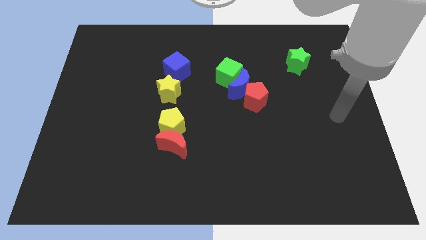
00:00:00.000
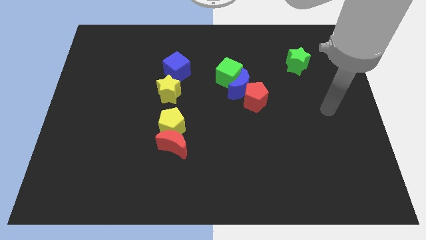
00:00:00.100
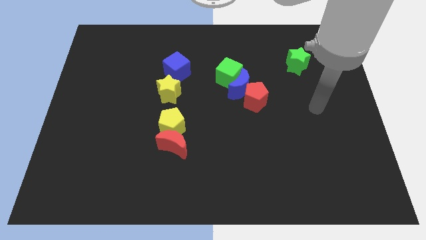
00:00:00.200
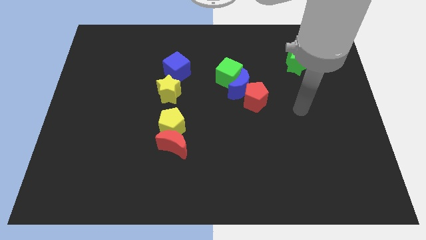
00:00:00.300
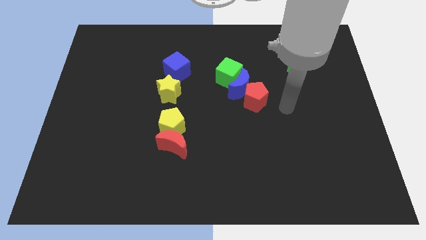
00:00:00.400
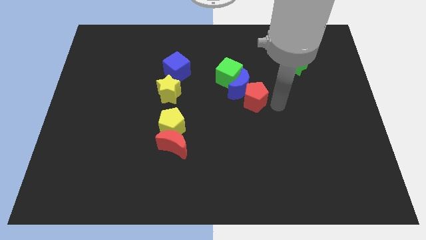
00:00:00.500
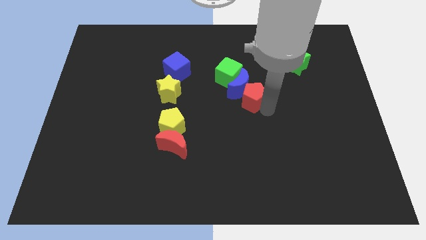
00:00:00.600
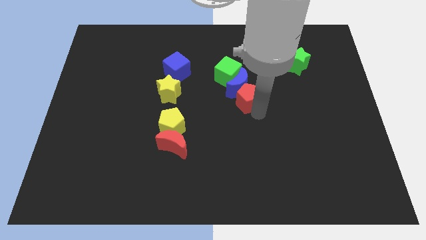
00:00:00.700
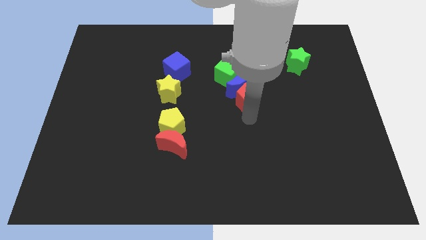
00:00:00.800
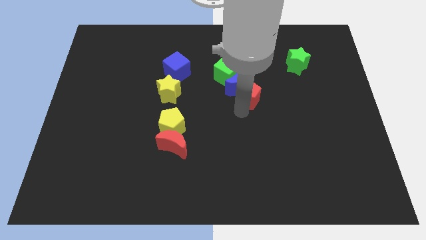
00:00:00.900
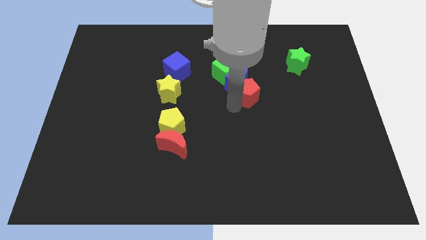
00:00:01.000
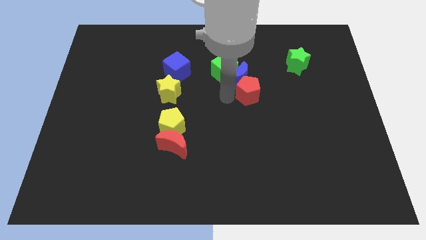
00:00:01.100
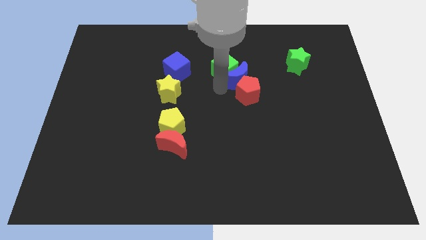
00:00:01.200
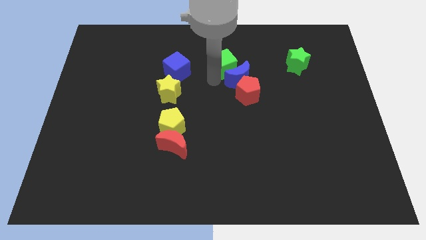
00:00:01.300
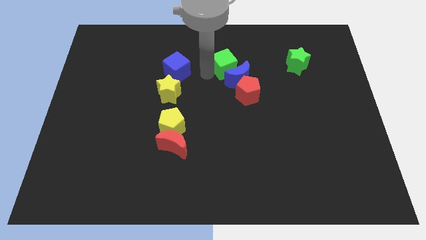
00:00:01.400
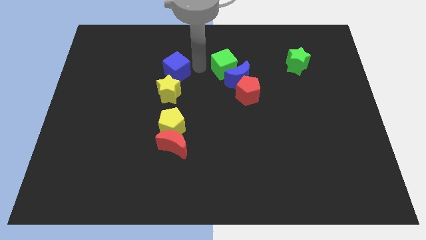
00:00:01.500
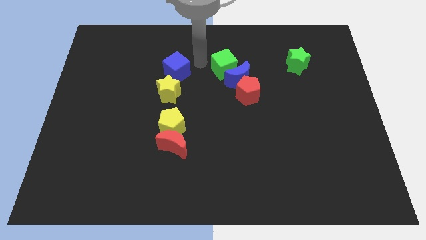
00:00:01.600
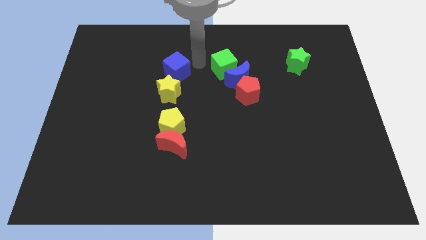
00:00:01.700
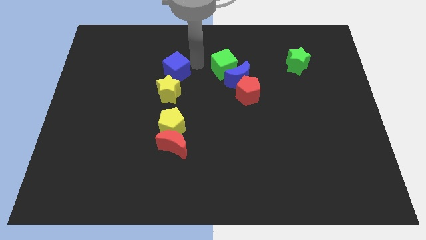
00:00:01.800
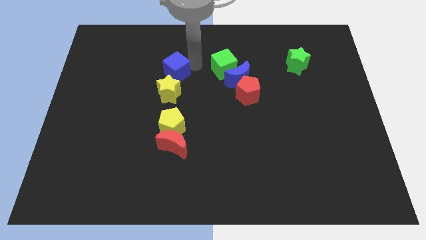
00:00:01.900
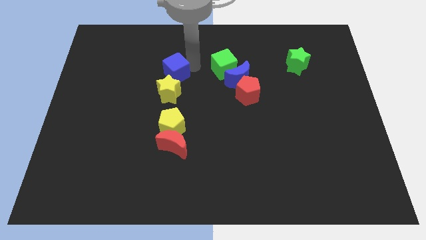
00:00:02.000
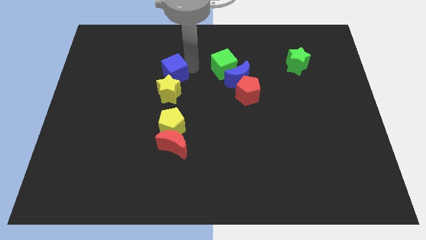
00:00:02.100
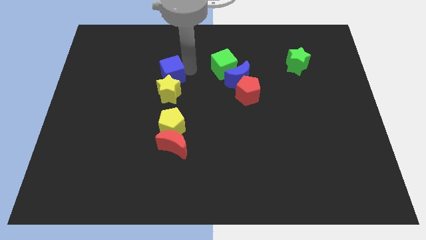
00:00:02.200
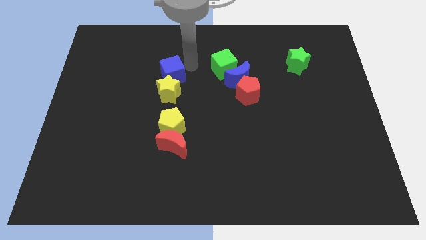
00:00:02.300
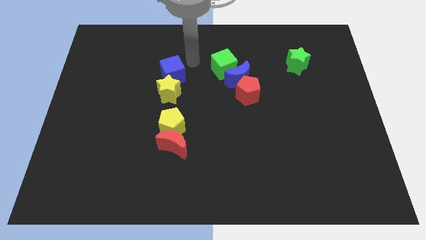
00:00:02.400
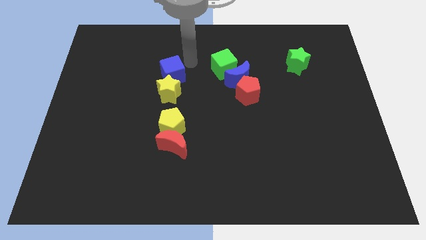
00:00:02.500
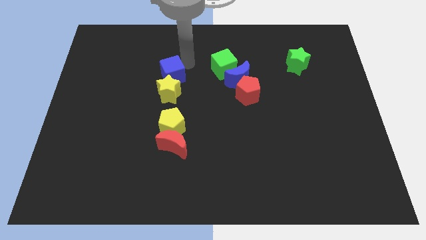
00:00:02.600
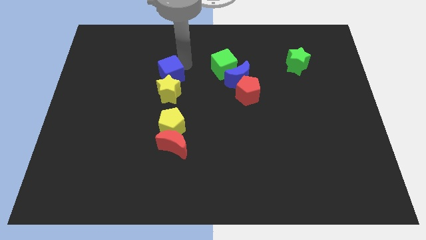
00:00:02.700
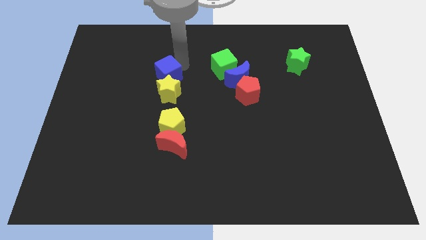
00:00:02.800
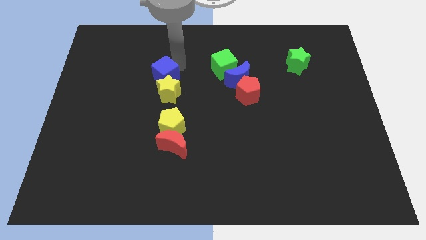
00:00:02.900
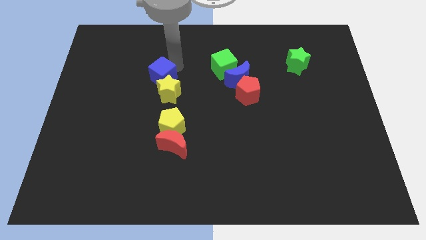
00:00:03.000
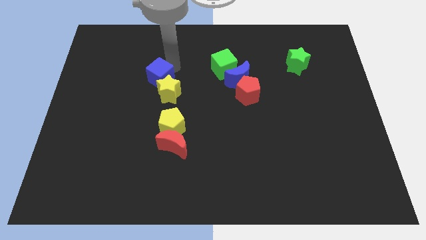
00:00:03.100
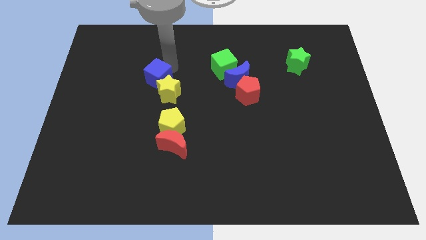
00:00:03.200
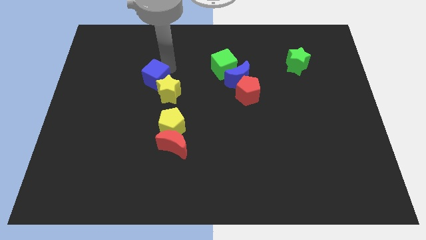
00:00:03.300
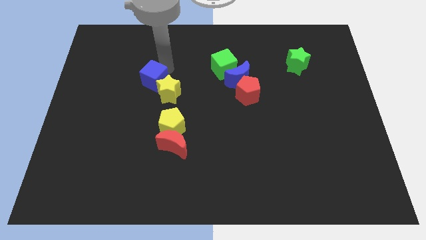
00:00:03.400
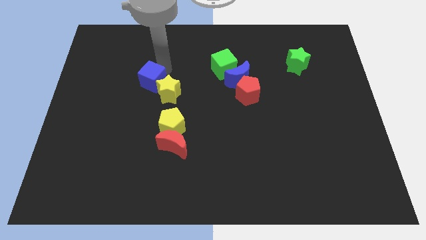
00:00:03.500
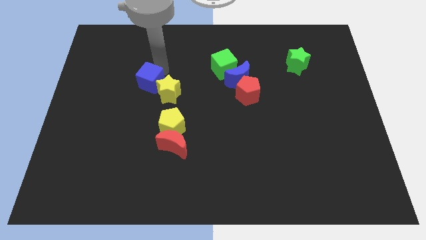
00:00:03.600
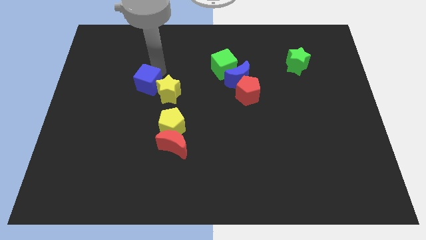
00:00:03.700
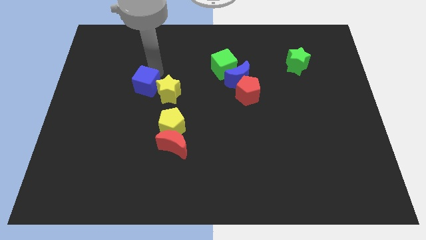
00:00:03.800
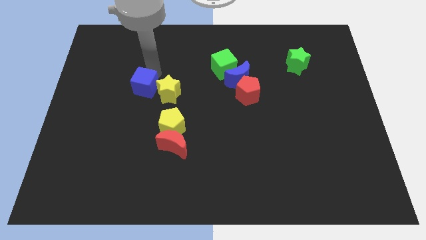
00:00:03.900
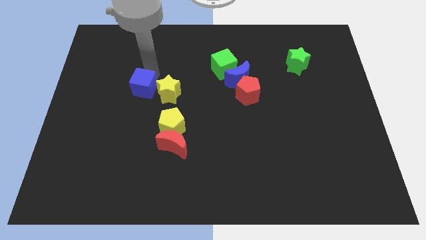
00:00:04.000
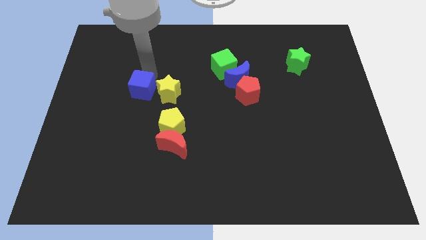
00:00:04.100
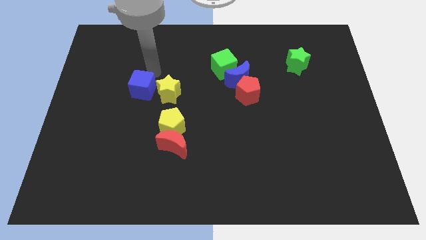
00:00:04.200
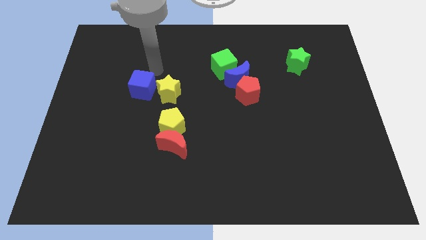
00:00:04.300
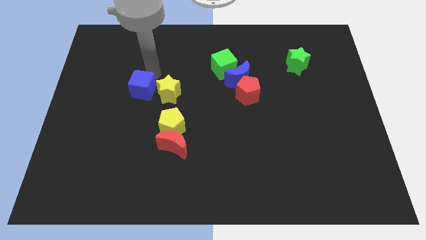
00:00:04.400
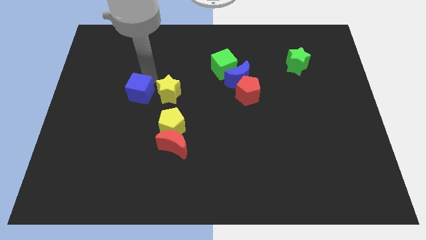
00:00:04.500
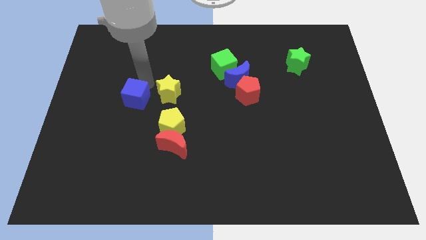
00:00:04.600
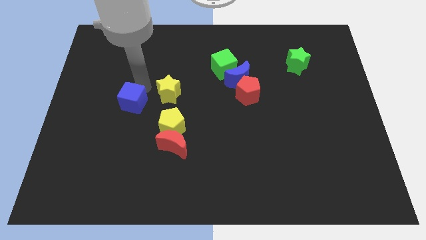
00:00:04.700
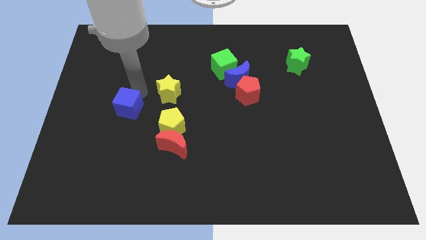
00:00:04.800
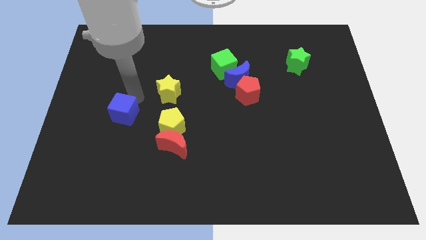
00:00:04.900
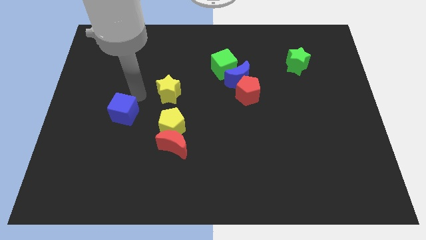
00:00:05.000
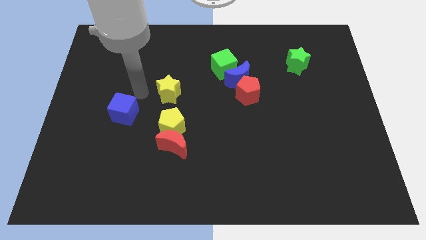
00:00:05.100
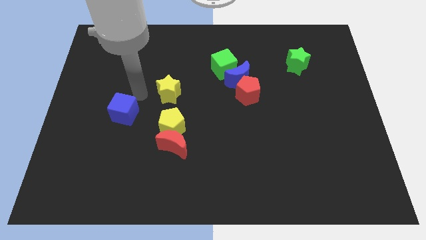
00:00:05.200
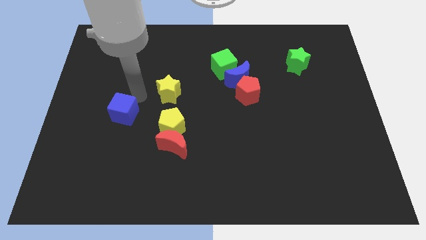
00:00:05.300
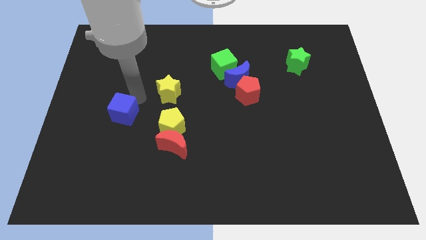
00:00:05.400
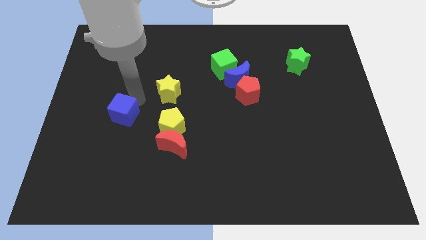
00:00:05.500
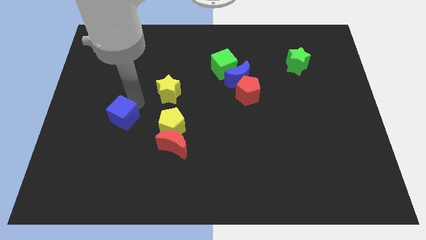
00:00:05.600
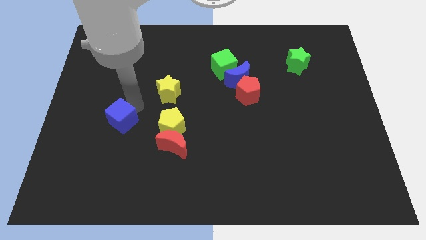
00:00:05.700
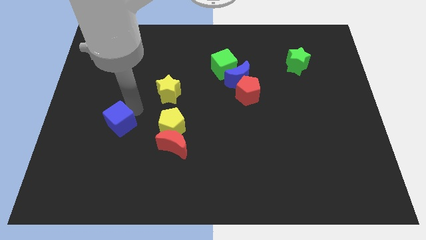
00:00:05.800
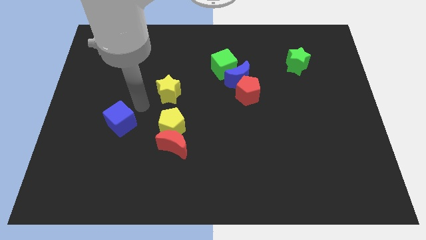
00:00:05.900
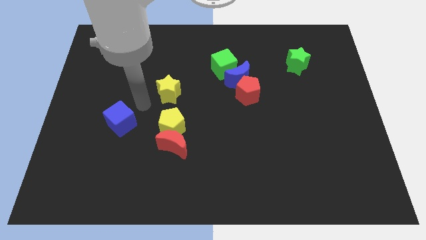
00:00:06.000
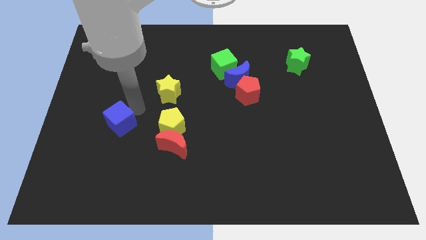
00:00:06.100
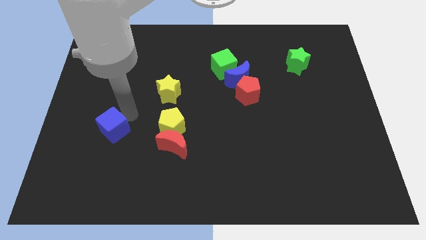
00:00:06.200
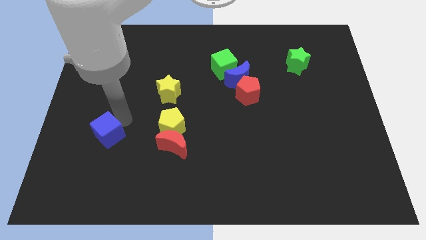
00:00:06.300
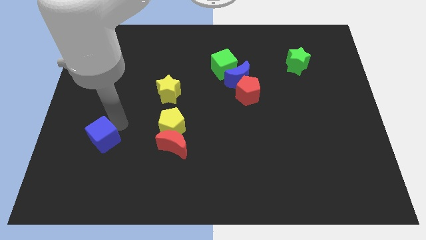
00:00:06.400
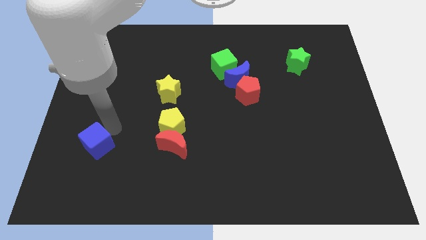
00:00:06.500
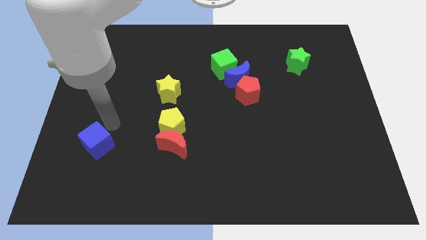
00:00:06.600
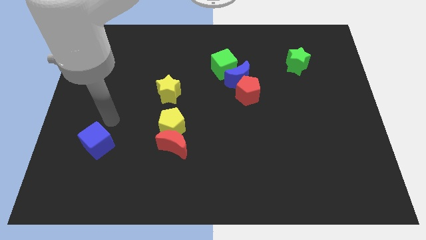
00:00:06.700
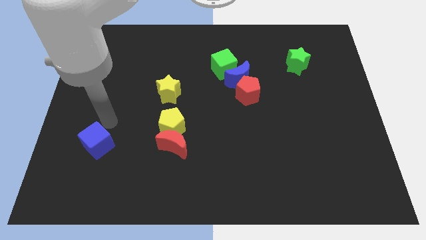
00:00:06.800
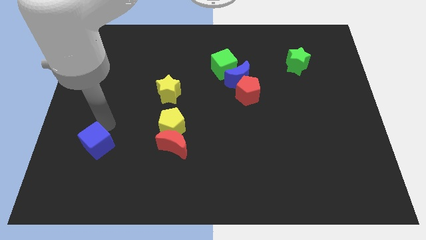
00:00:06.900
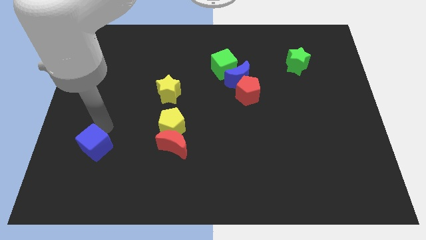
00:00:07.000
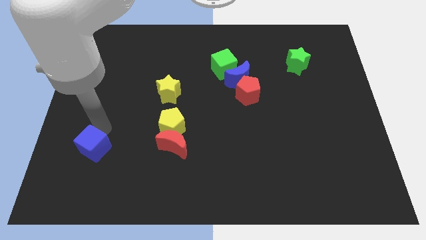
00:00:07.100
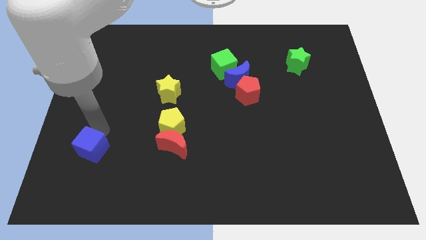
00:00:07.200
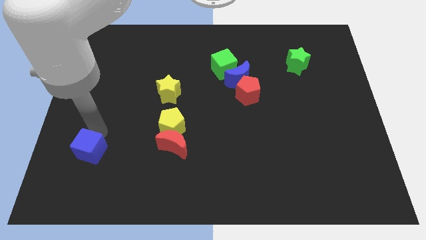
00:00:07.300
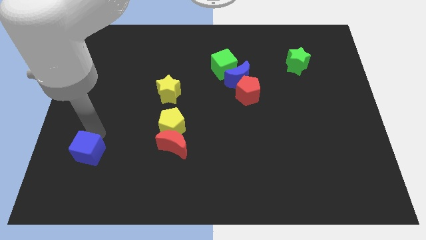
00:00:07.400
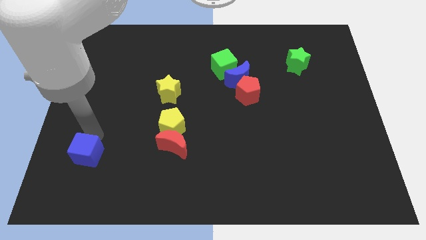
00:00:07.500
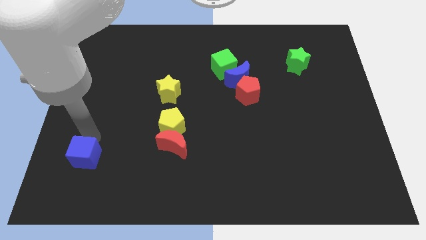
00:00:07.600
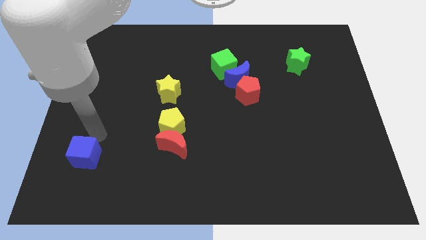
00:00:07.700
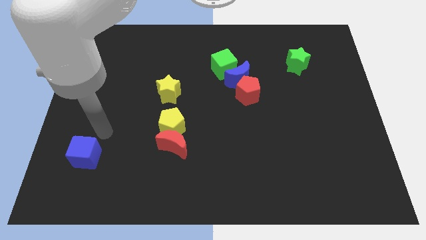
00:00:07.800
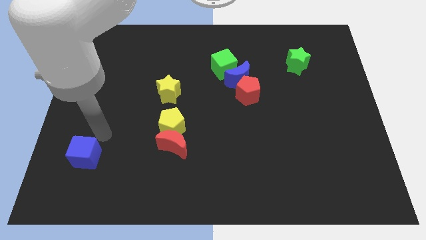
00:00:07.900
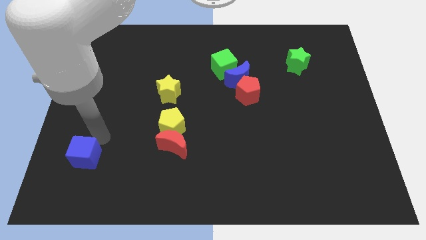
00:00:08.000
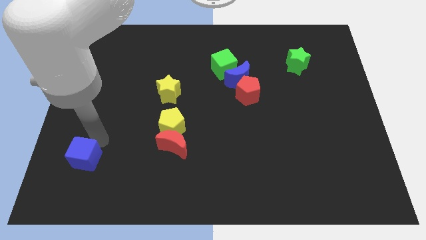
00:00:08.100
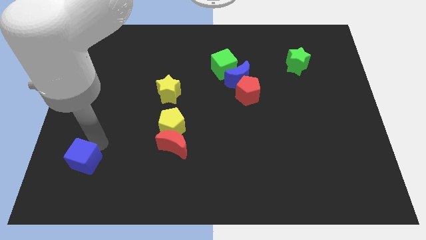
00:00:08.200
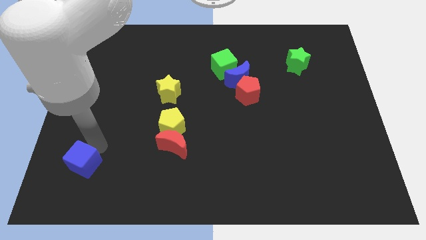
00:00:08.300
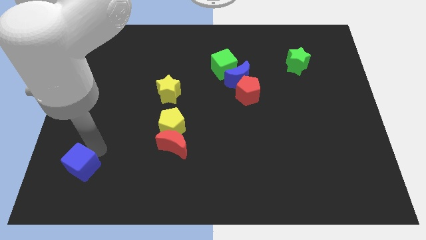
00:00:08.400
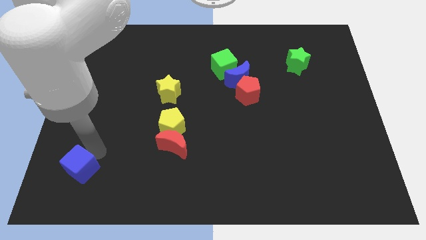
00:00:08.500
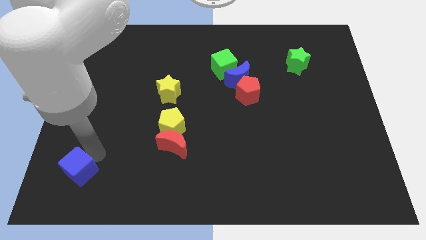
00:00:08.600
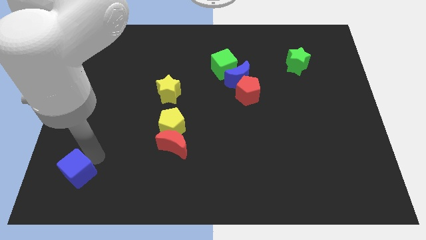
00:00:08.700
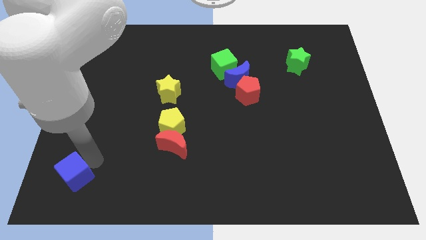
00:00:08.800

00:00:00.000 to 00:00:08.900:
move the blue cube to the bottom left
